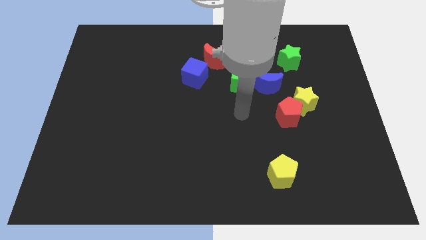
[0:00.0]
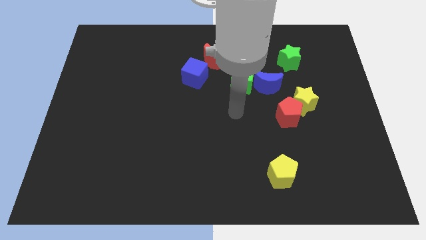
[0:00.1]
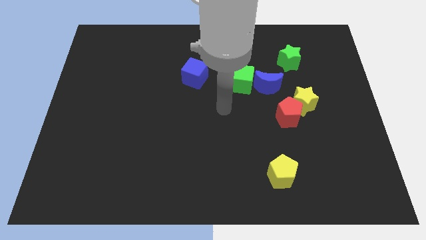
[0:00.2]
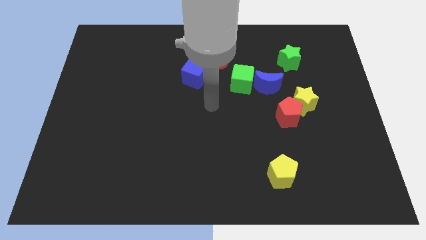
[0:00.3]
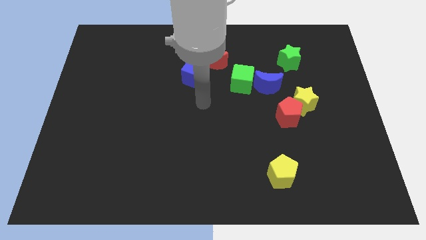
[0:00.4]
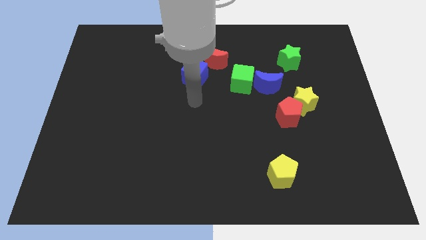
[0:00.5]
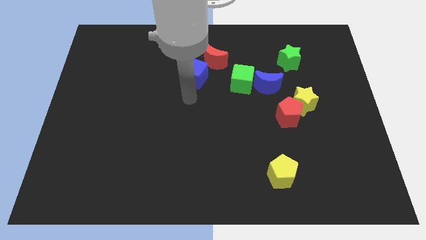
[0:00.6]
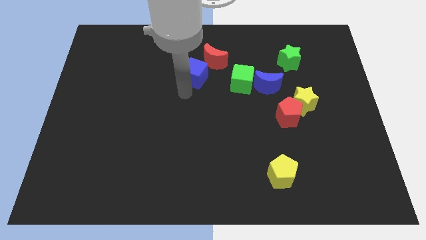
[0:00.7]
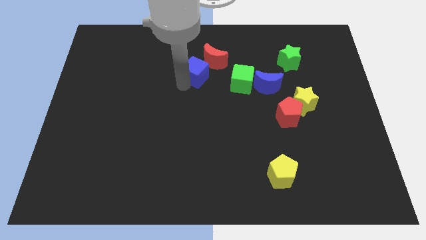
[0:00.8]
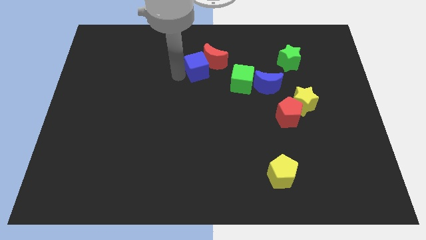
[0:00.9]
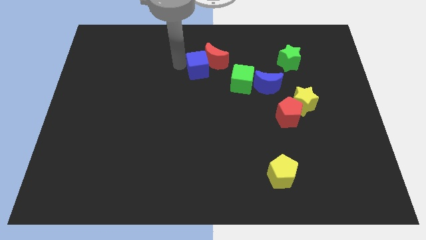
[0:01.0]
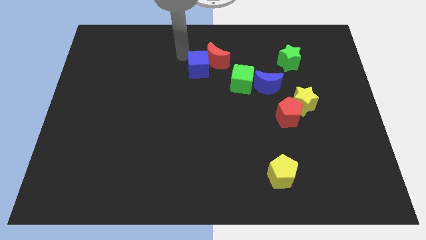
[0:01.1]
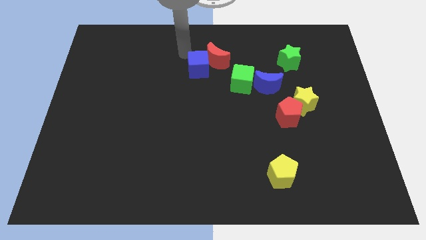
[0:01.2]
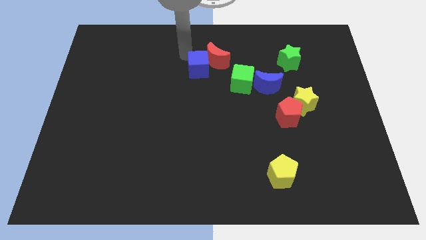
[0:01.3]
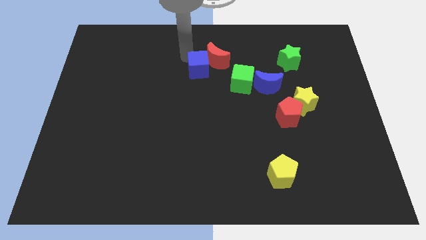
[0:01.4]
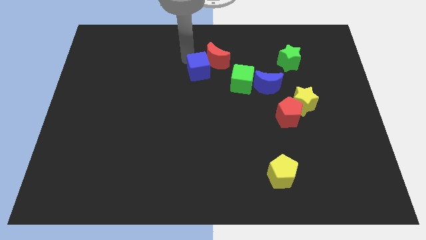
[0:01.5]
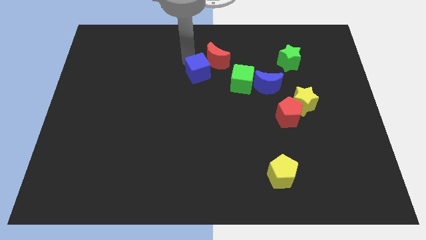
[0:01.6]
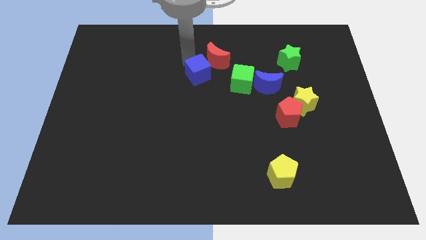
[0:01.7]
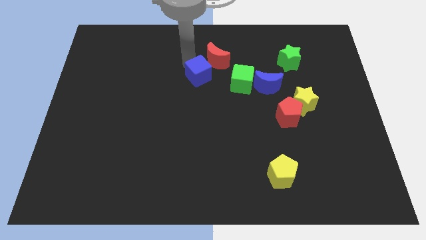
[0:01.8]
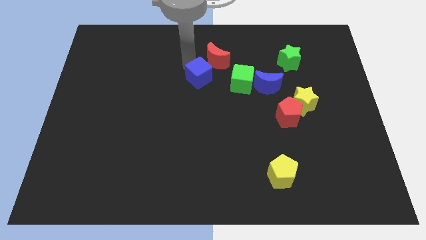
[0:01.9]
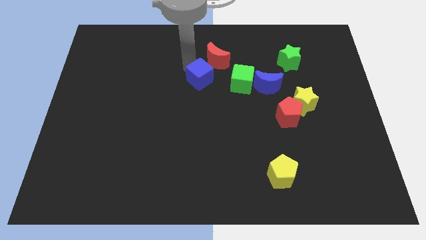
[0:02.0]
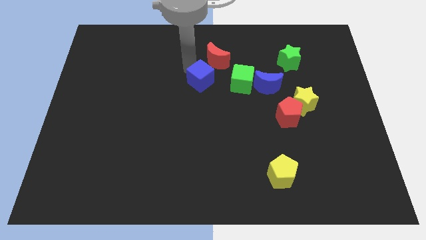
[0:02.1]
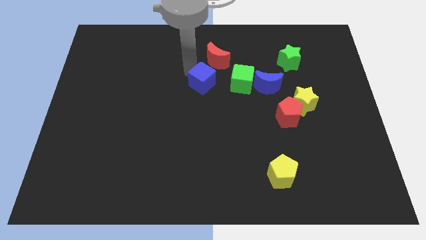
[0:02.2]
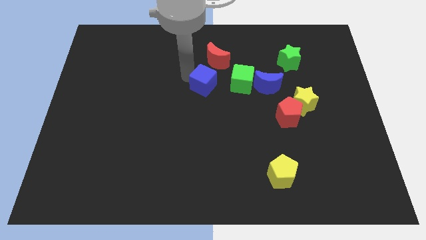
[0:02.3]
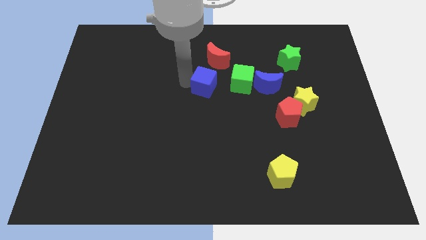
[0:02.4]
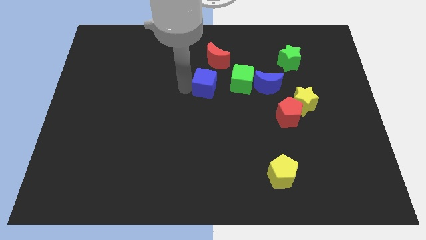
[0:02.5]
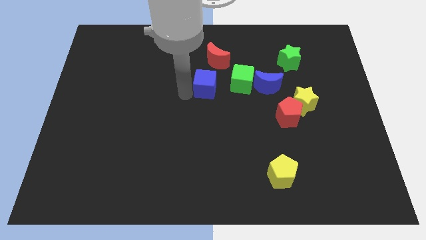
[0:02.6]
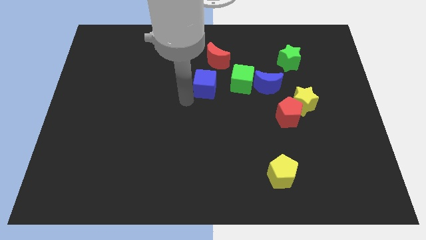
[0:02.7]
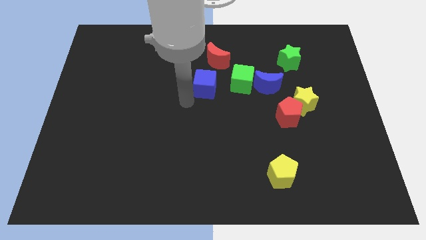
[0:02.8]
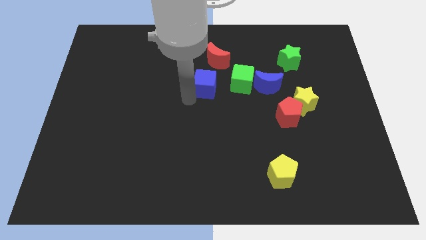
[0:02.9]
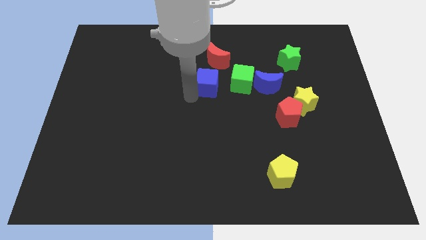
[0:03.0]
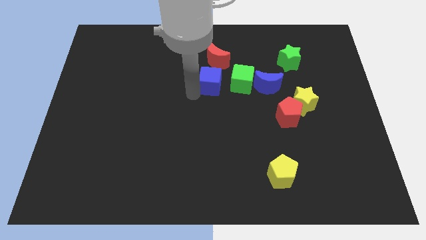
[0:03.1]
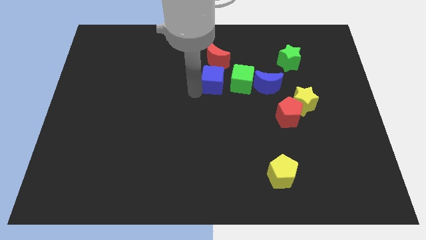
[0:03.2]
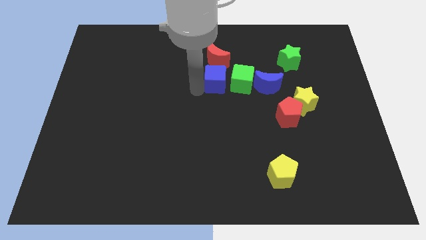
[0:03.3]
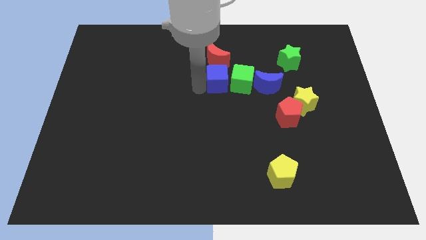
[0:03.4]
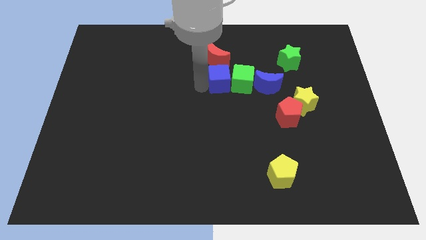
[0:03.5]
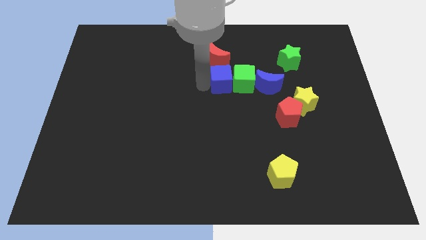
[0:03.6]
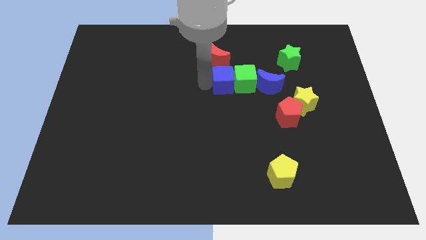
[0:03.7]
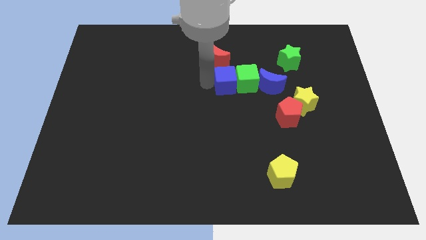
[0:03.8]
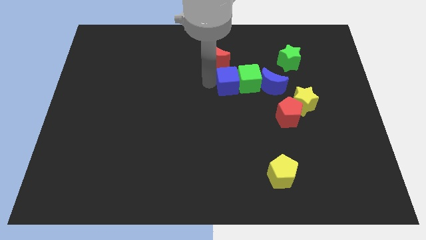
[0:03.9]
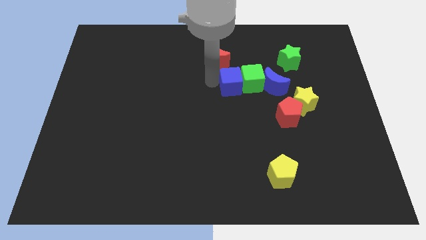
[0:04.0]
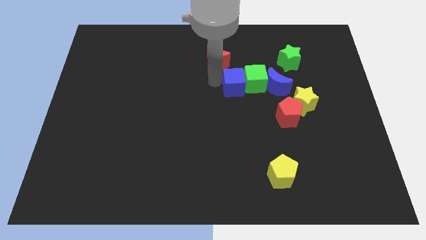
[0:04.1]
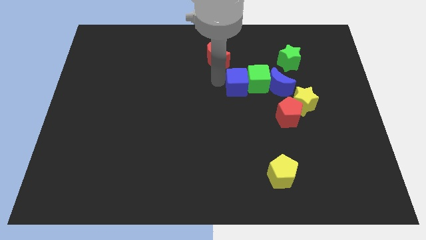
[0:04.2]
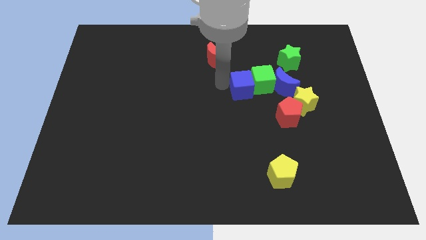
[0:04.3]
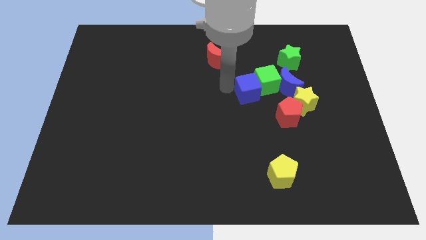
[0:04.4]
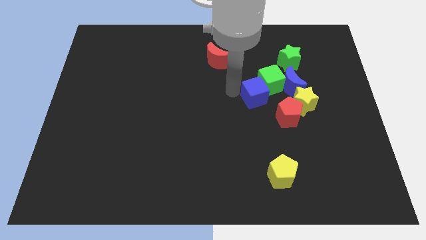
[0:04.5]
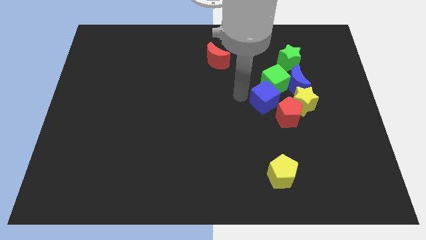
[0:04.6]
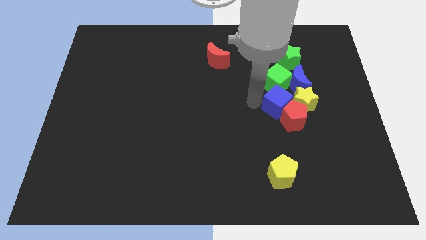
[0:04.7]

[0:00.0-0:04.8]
move the blue cube to the top of the red pentagon

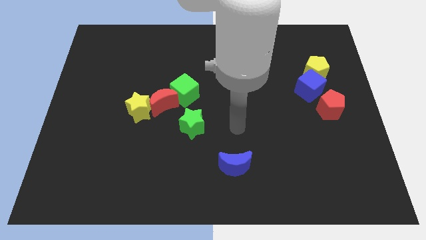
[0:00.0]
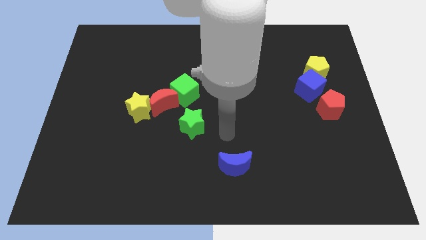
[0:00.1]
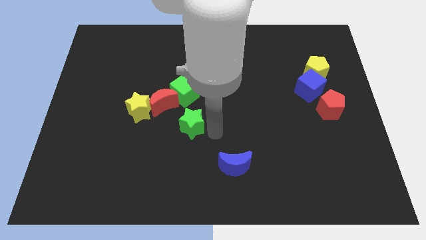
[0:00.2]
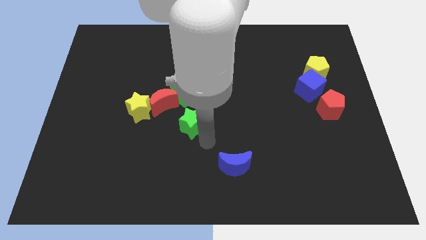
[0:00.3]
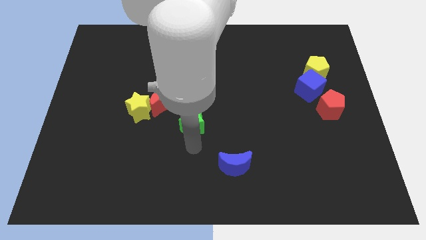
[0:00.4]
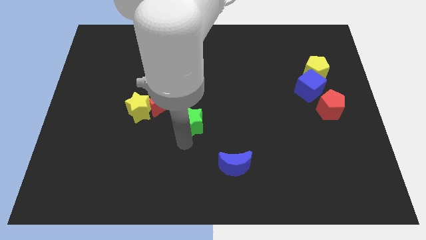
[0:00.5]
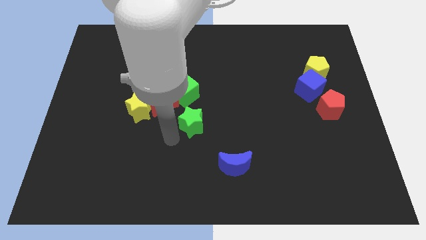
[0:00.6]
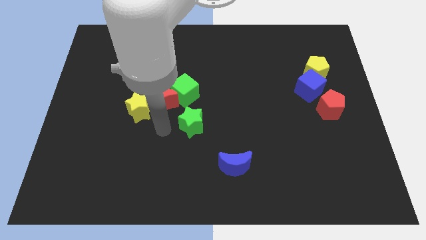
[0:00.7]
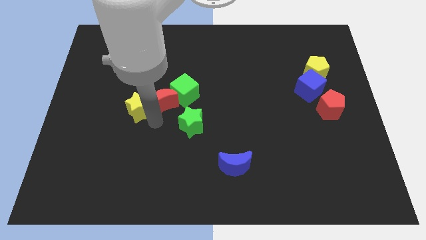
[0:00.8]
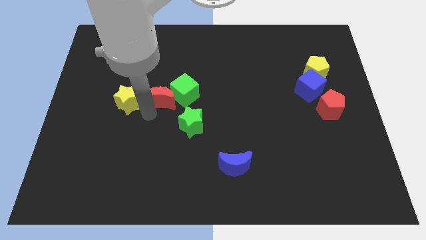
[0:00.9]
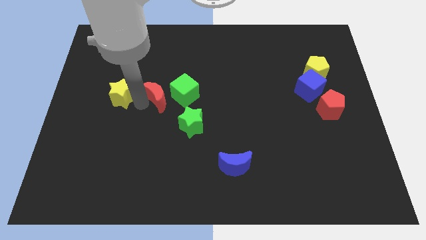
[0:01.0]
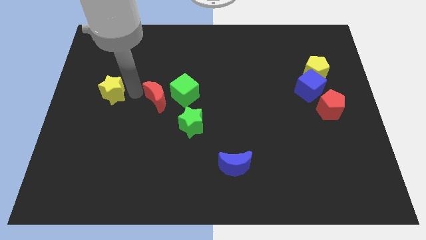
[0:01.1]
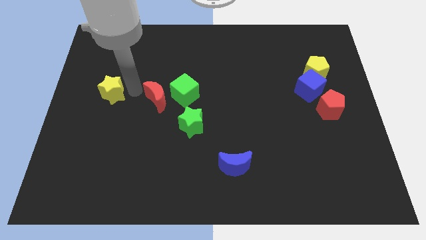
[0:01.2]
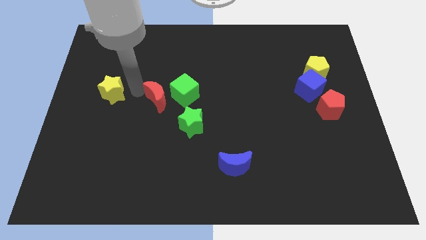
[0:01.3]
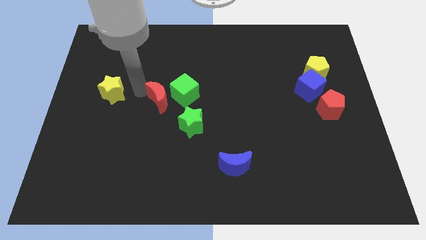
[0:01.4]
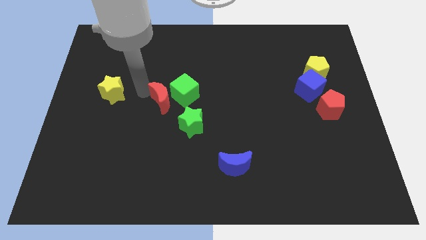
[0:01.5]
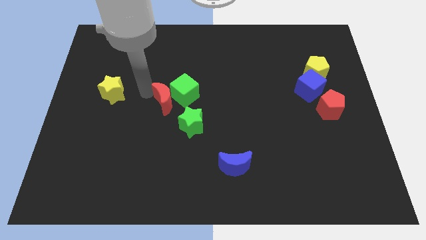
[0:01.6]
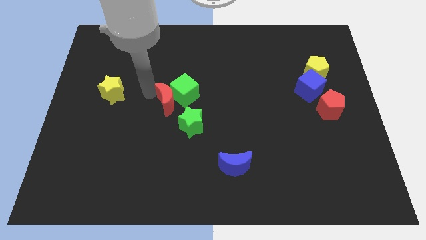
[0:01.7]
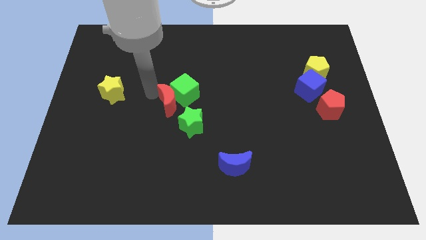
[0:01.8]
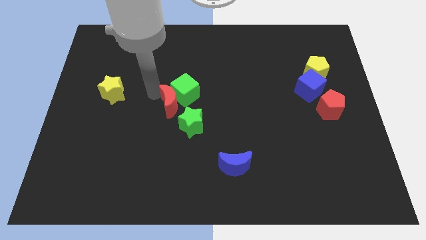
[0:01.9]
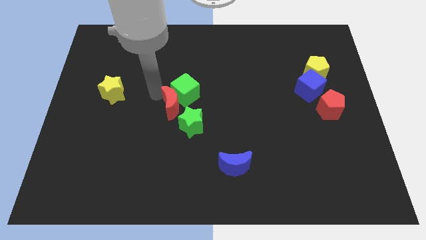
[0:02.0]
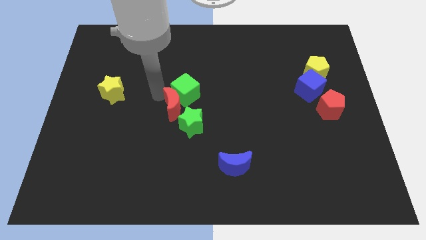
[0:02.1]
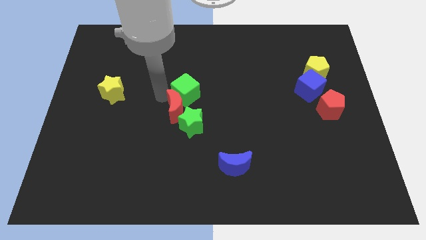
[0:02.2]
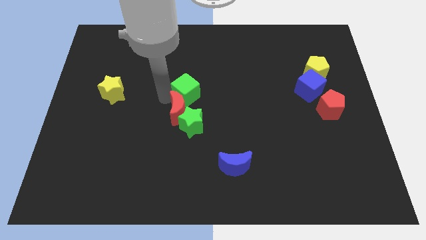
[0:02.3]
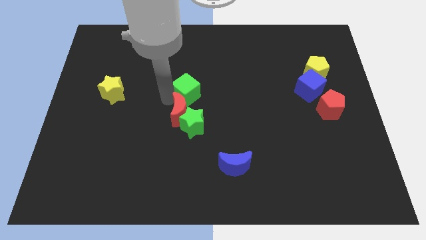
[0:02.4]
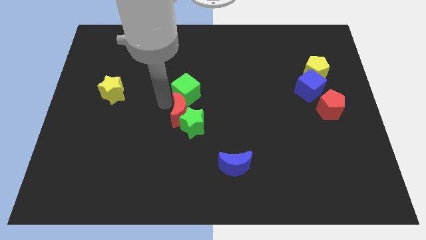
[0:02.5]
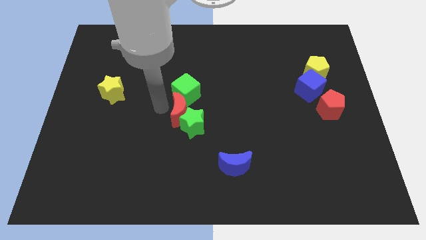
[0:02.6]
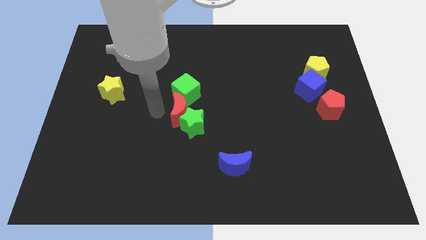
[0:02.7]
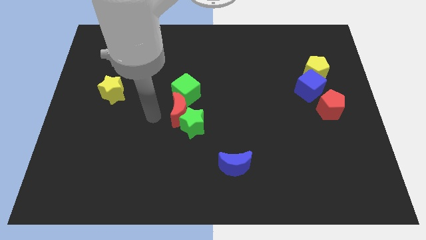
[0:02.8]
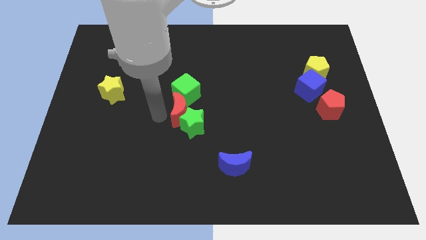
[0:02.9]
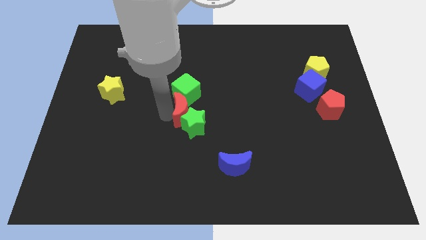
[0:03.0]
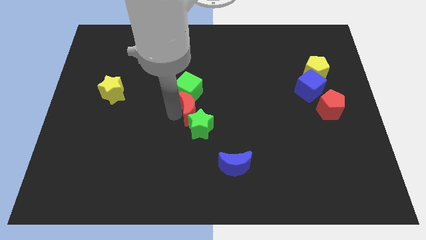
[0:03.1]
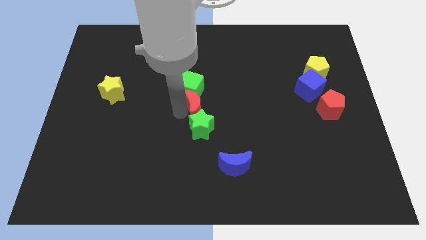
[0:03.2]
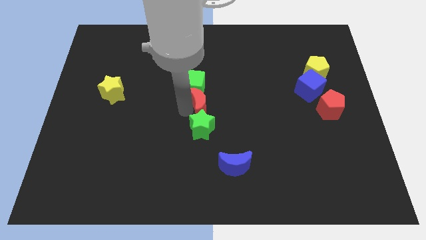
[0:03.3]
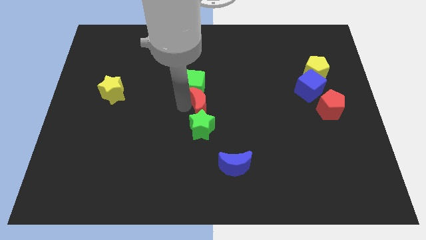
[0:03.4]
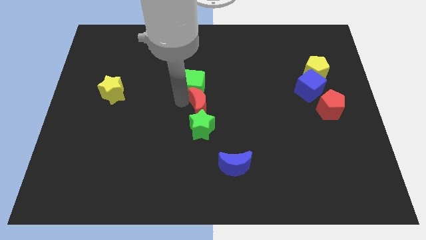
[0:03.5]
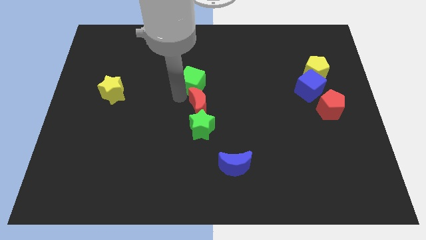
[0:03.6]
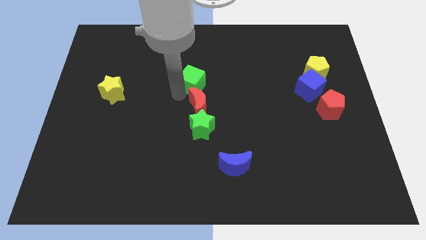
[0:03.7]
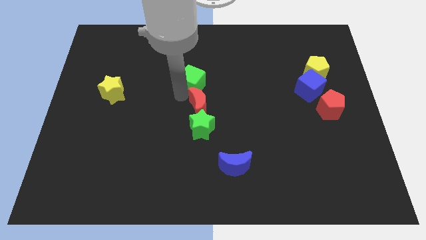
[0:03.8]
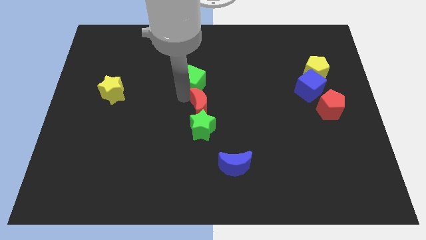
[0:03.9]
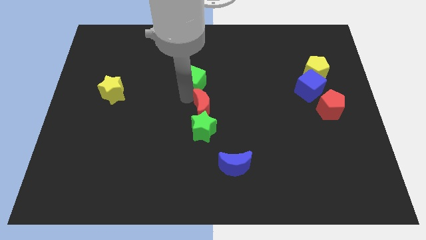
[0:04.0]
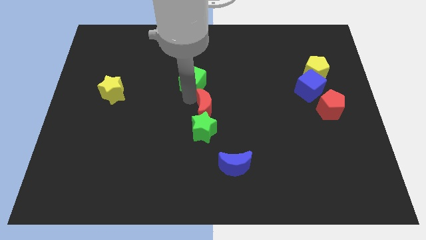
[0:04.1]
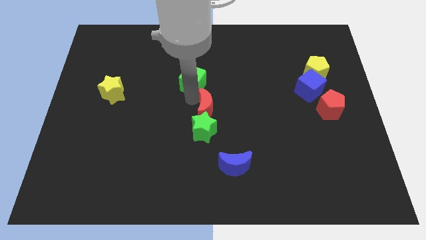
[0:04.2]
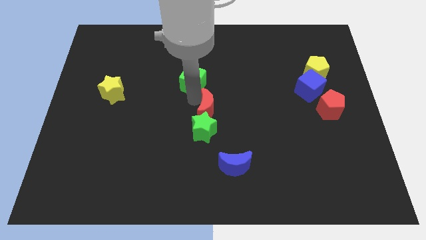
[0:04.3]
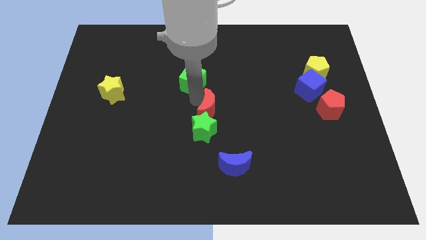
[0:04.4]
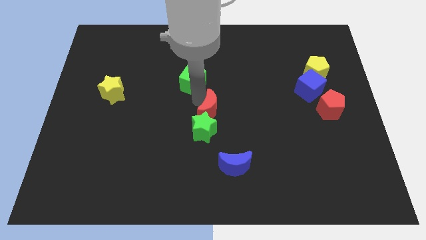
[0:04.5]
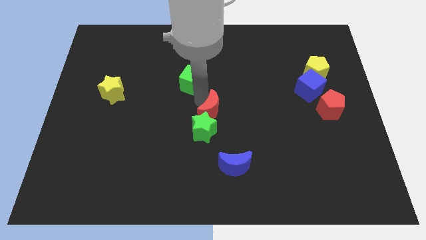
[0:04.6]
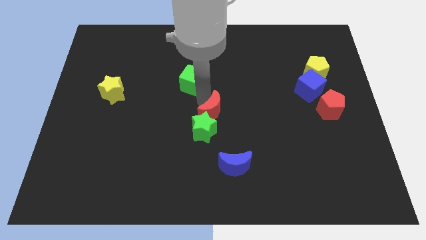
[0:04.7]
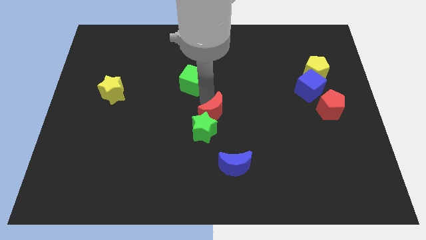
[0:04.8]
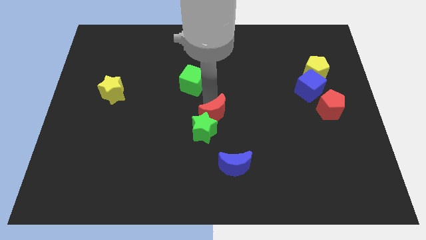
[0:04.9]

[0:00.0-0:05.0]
push the red moon above the blue moon
